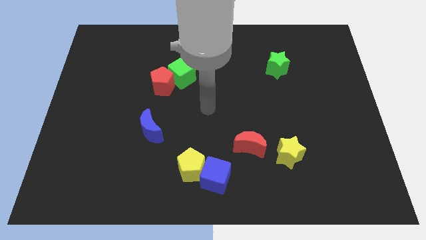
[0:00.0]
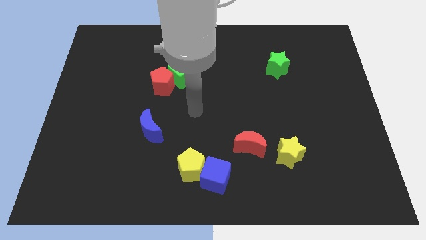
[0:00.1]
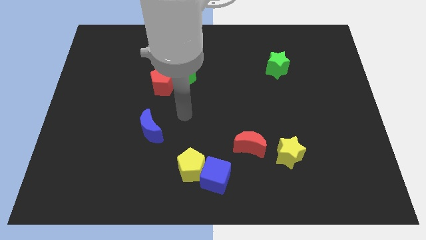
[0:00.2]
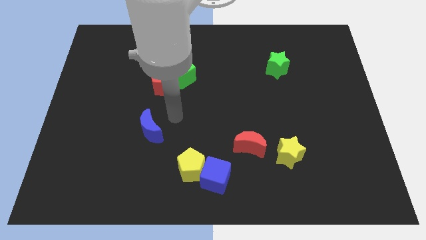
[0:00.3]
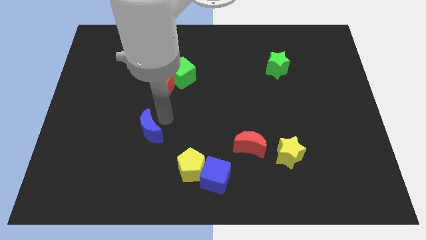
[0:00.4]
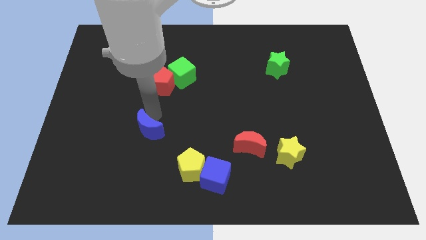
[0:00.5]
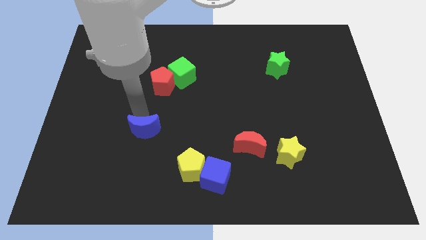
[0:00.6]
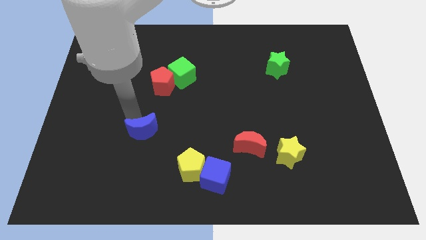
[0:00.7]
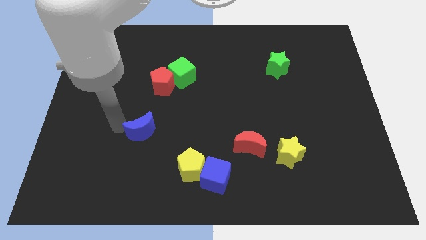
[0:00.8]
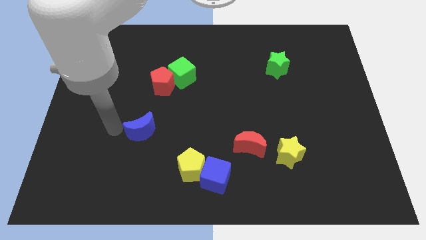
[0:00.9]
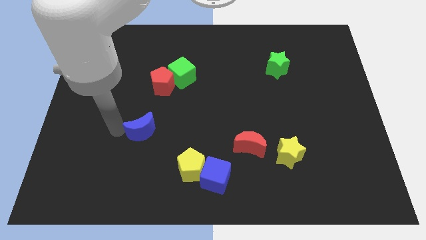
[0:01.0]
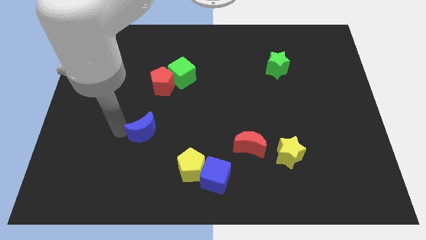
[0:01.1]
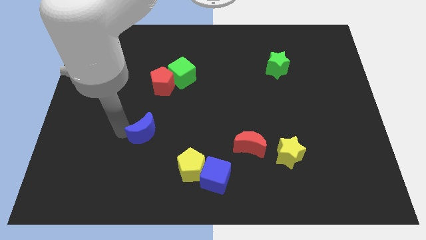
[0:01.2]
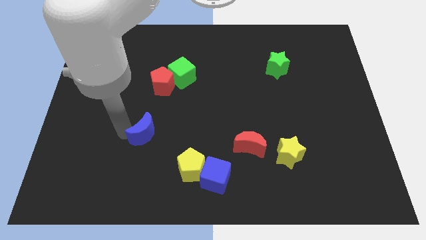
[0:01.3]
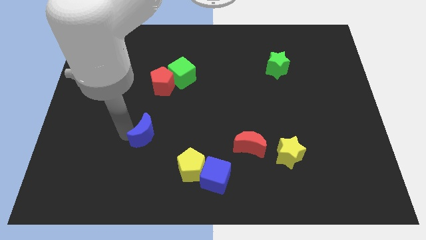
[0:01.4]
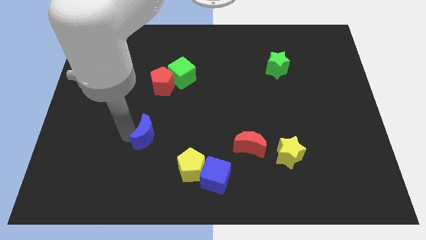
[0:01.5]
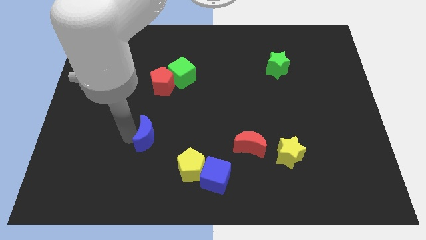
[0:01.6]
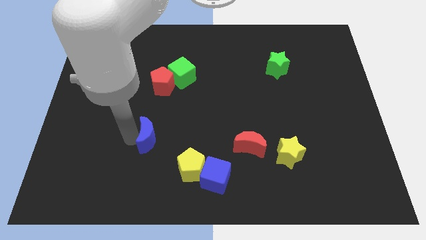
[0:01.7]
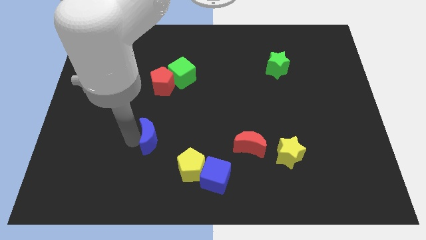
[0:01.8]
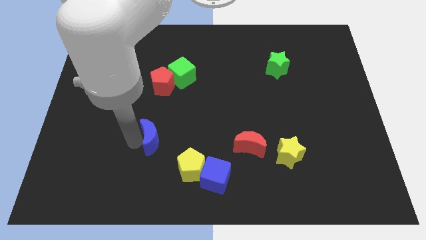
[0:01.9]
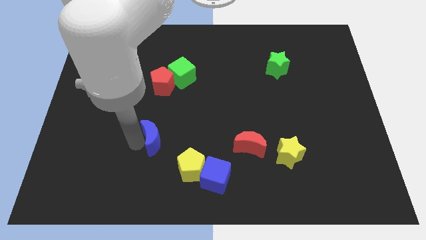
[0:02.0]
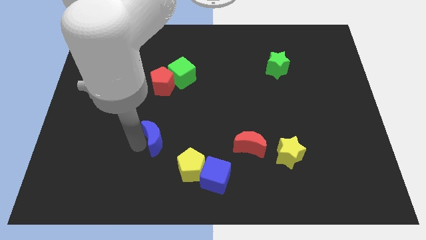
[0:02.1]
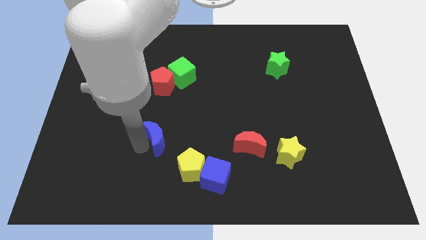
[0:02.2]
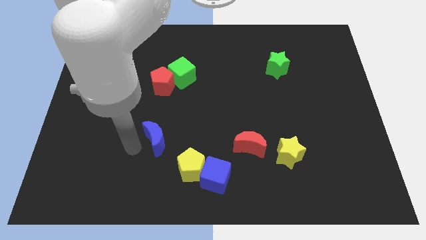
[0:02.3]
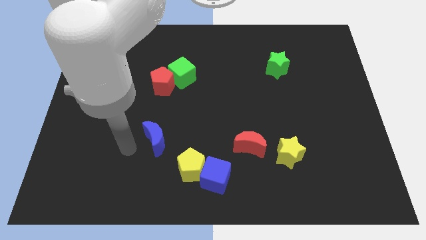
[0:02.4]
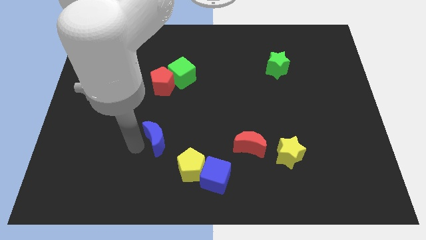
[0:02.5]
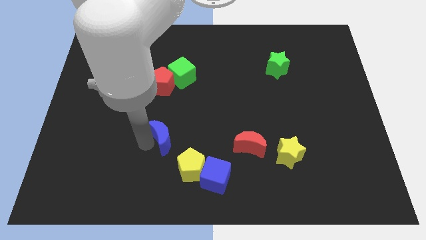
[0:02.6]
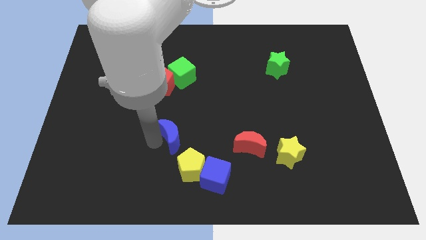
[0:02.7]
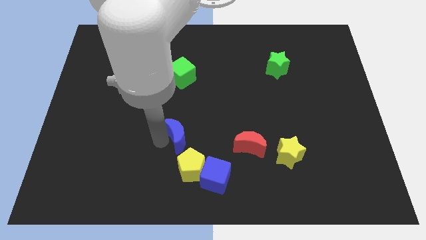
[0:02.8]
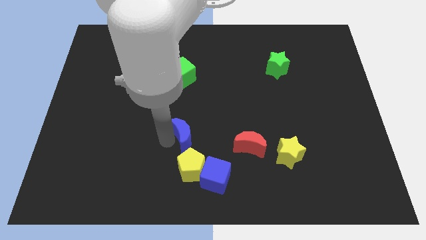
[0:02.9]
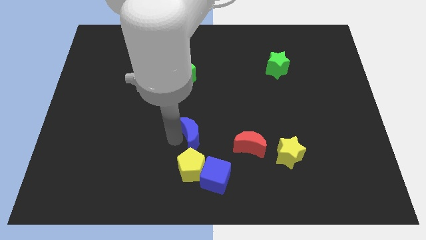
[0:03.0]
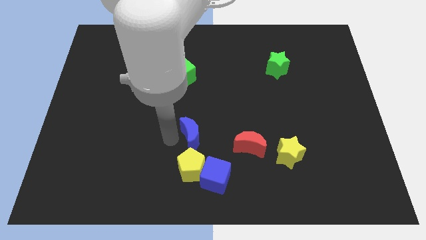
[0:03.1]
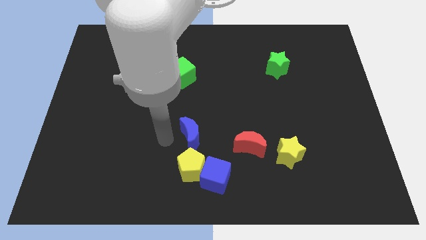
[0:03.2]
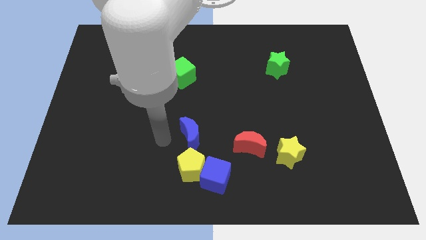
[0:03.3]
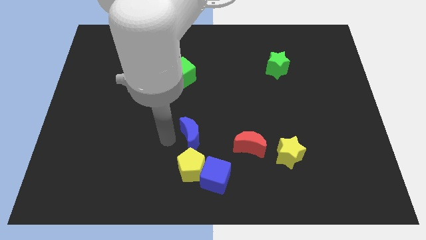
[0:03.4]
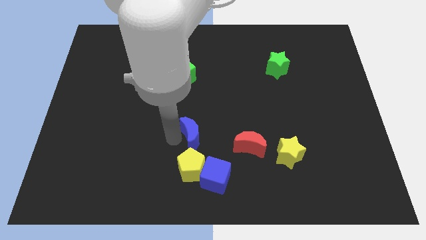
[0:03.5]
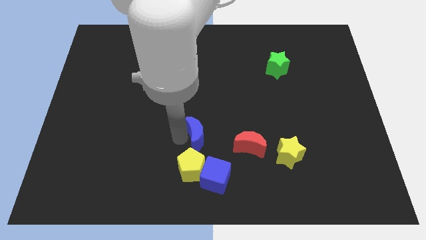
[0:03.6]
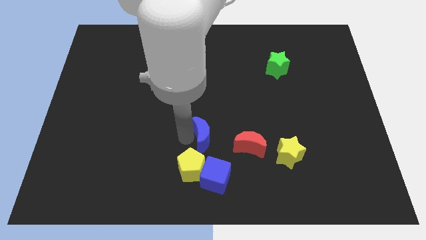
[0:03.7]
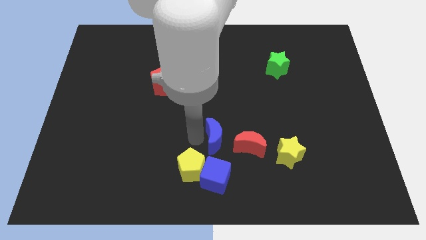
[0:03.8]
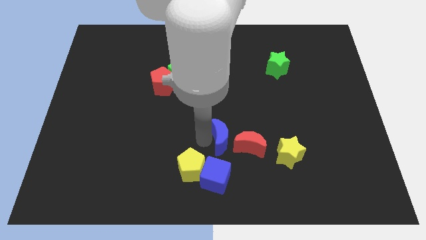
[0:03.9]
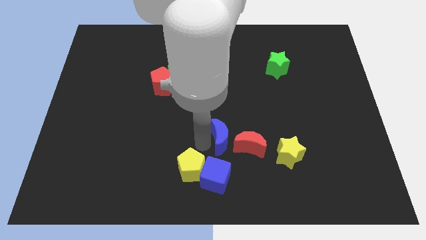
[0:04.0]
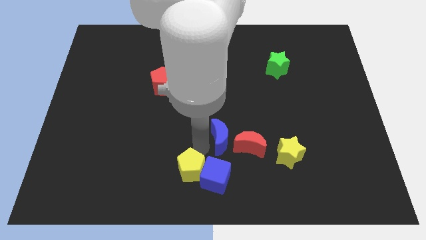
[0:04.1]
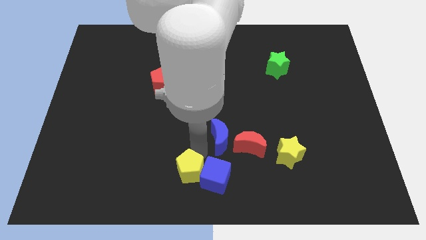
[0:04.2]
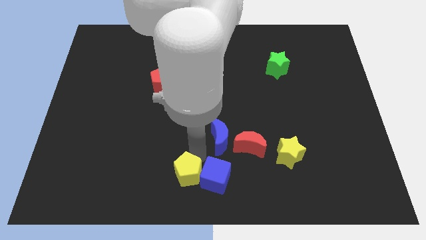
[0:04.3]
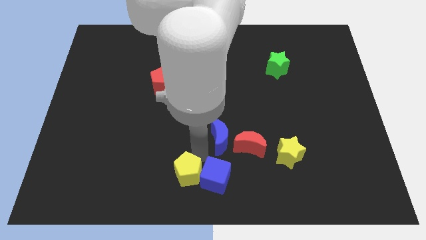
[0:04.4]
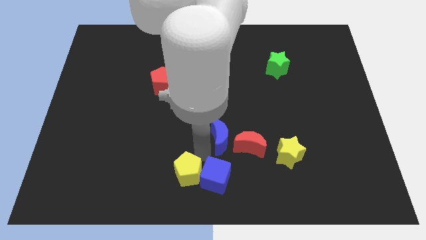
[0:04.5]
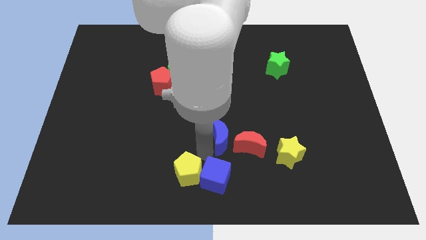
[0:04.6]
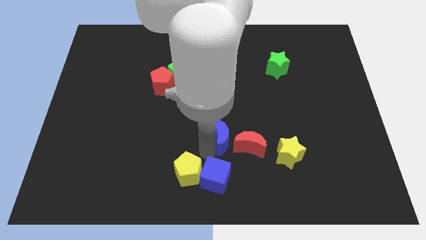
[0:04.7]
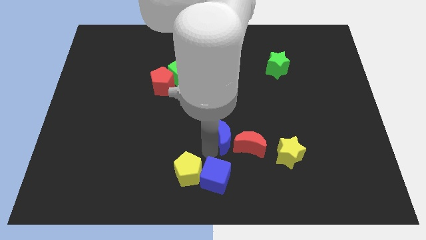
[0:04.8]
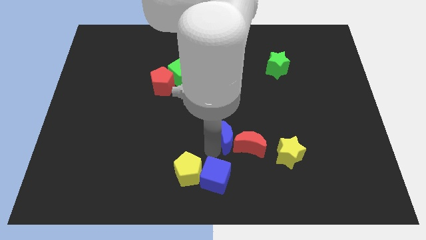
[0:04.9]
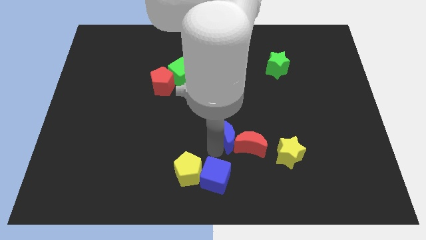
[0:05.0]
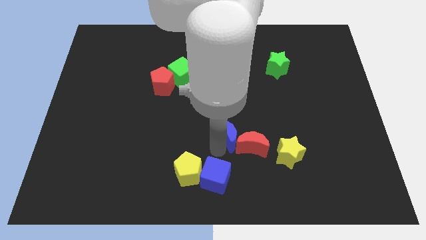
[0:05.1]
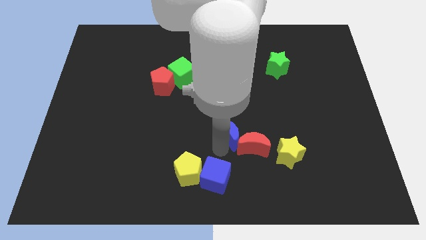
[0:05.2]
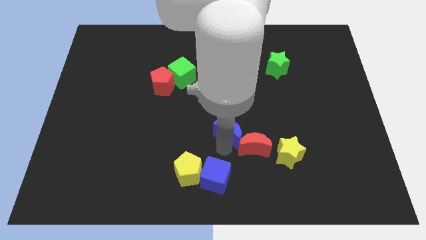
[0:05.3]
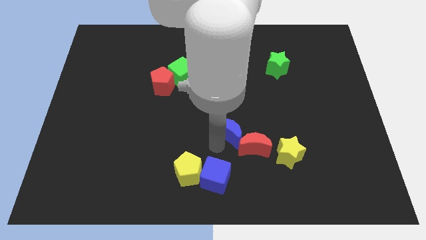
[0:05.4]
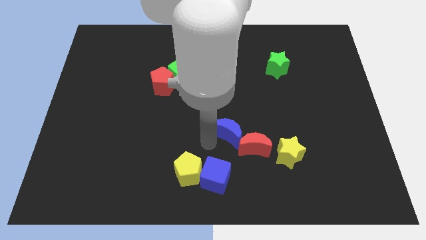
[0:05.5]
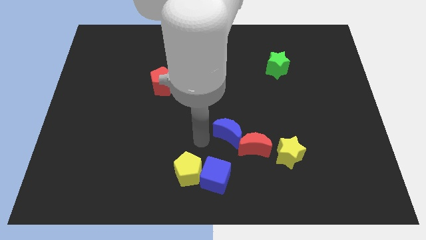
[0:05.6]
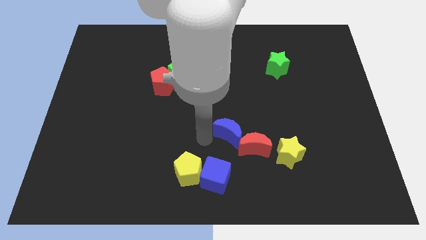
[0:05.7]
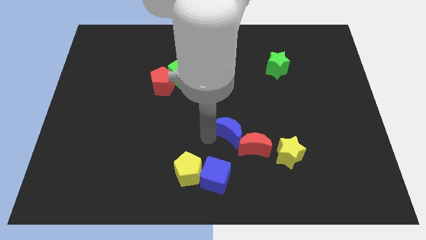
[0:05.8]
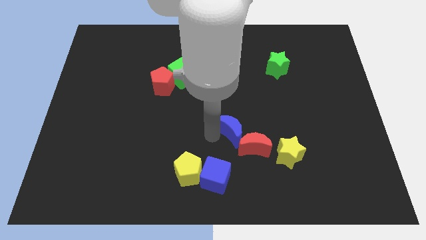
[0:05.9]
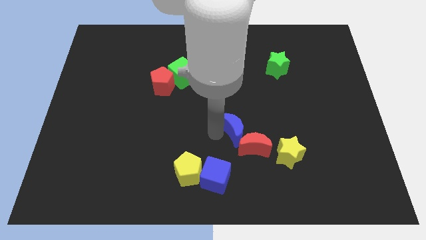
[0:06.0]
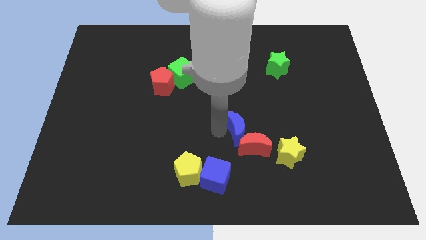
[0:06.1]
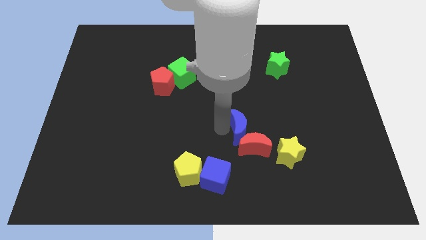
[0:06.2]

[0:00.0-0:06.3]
push the blue moon right

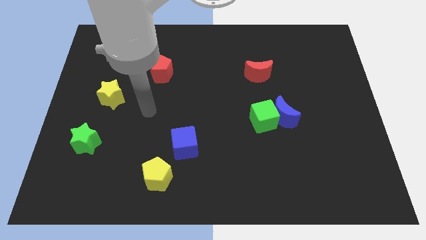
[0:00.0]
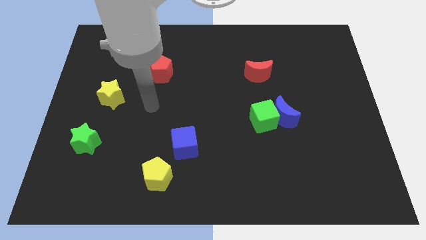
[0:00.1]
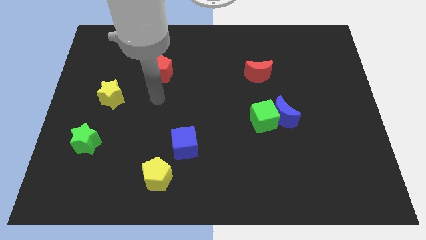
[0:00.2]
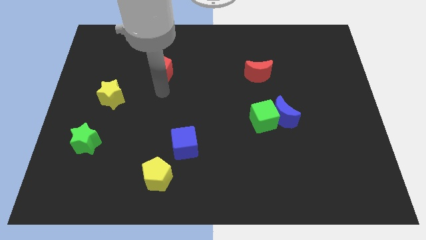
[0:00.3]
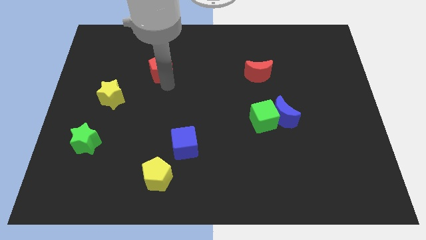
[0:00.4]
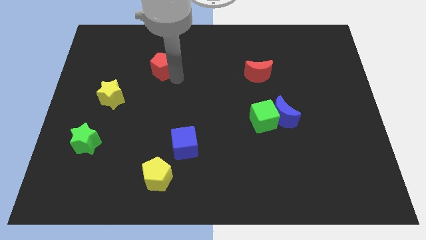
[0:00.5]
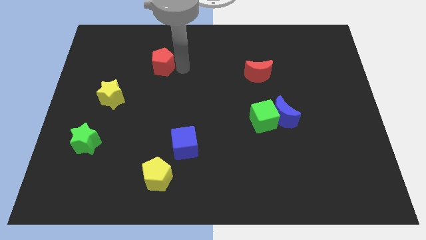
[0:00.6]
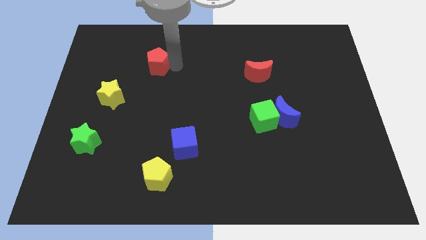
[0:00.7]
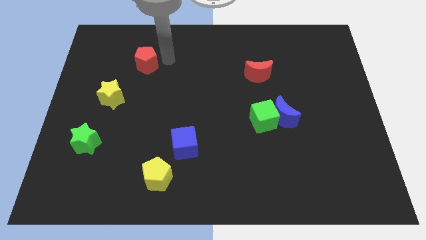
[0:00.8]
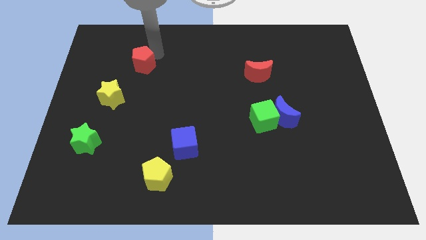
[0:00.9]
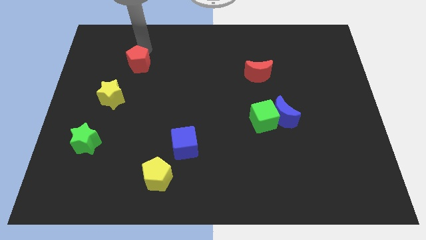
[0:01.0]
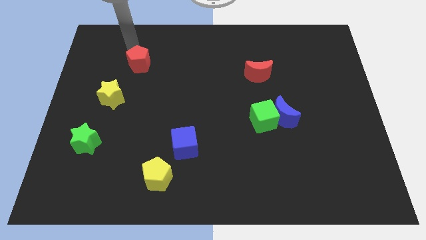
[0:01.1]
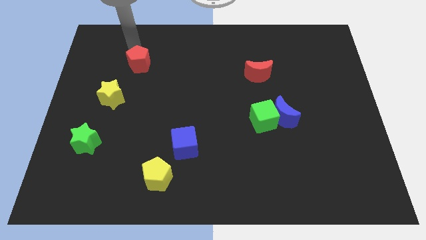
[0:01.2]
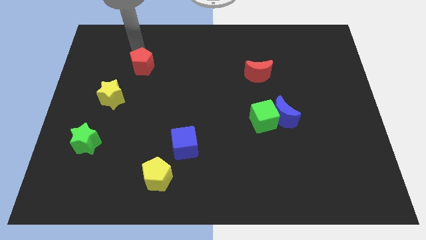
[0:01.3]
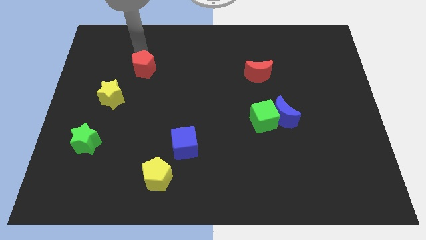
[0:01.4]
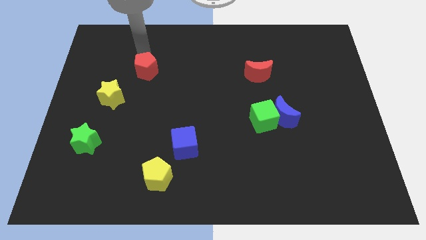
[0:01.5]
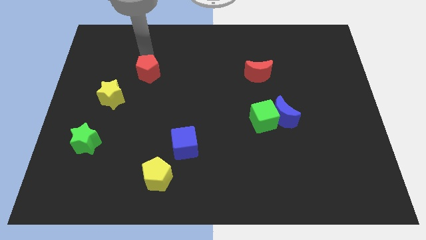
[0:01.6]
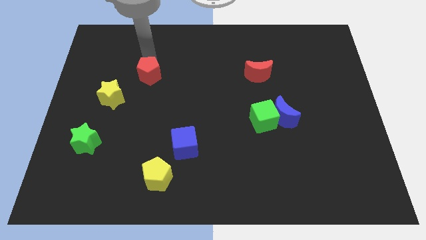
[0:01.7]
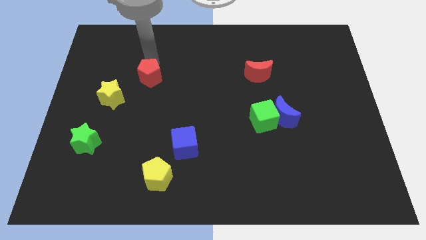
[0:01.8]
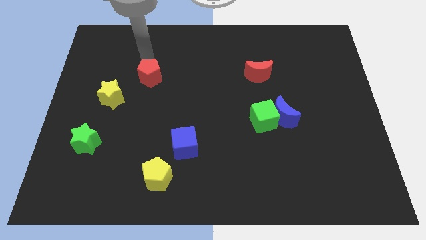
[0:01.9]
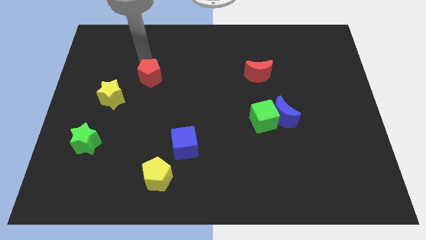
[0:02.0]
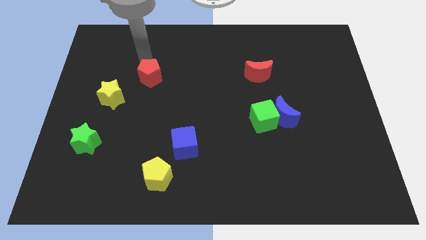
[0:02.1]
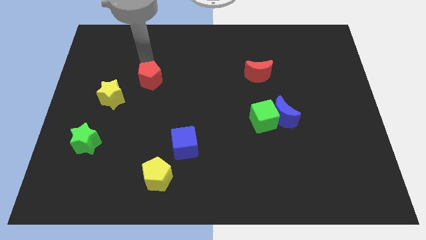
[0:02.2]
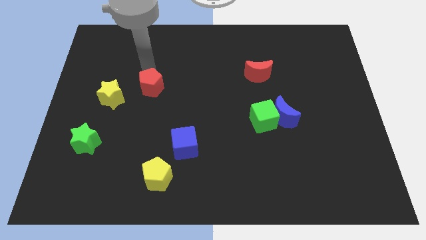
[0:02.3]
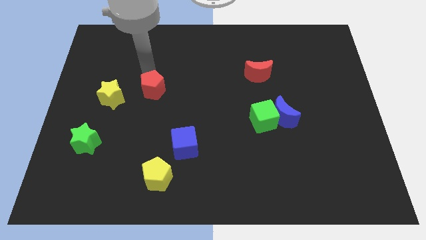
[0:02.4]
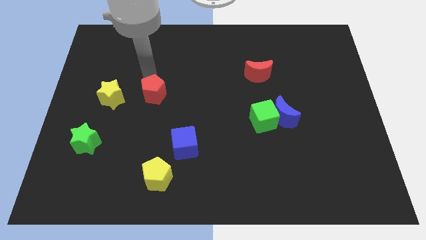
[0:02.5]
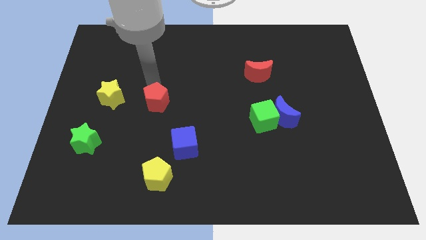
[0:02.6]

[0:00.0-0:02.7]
push the red pentagon a little downwards
